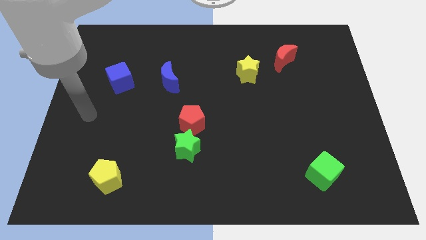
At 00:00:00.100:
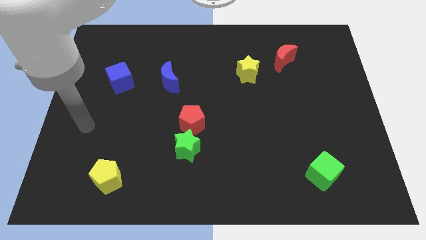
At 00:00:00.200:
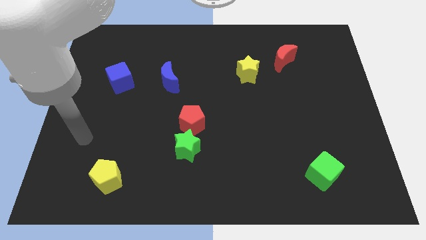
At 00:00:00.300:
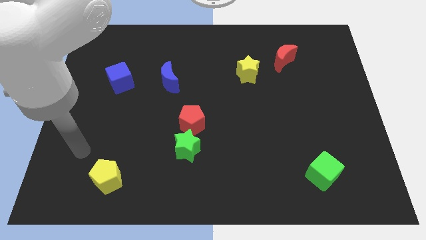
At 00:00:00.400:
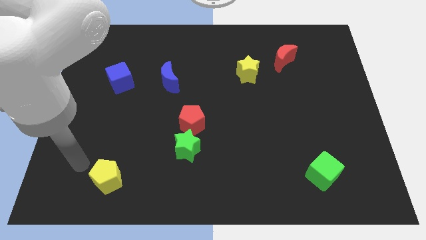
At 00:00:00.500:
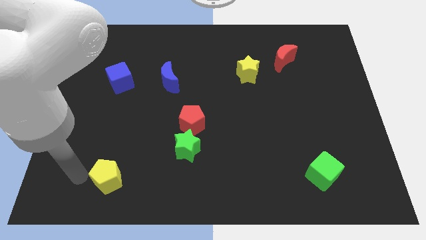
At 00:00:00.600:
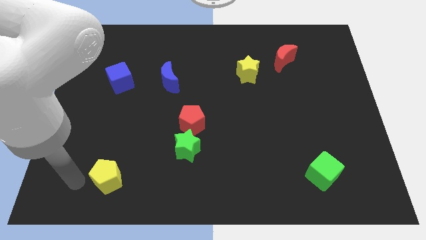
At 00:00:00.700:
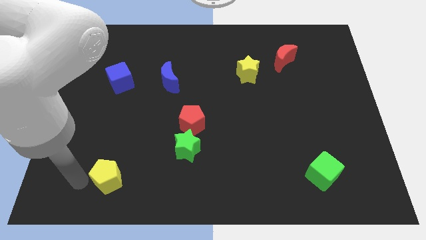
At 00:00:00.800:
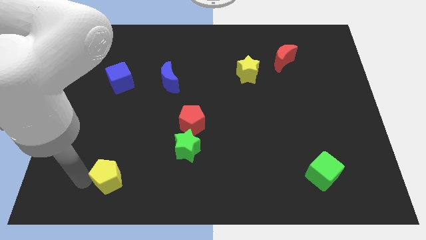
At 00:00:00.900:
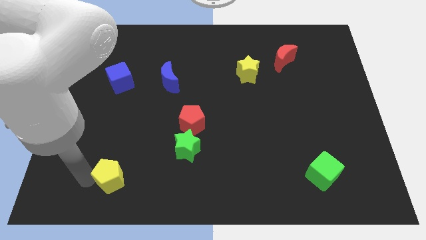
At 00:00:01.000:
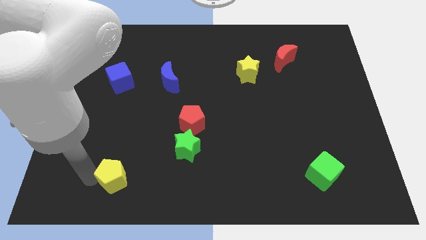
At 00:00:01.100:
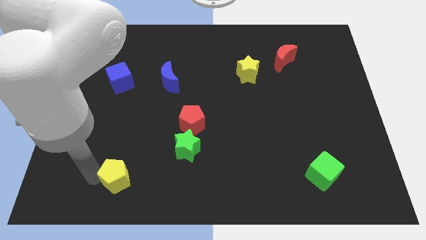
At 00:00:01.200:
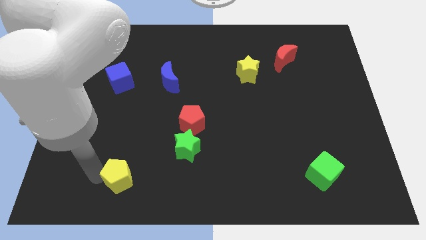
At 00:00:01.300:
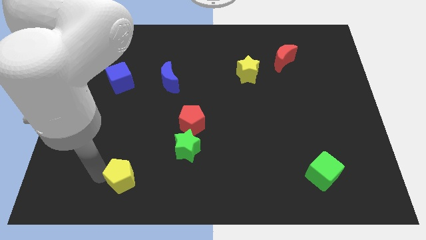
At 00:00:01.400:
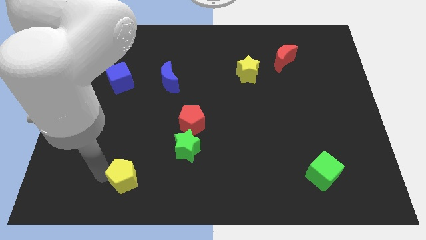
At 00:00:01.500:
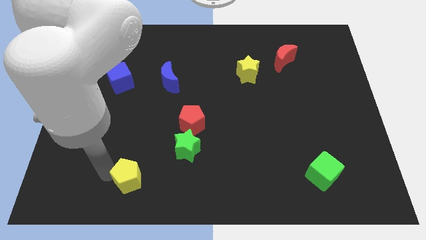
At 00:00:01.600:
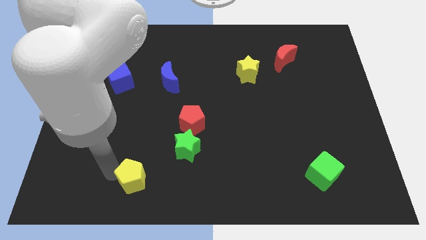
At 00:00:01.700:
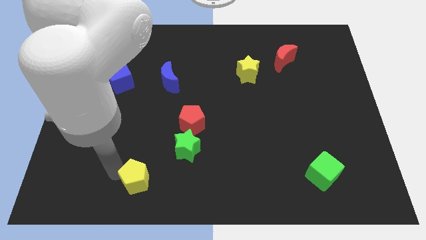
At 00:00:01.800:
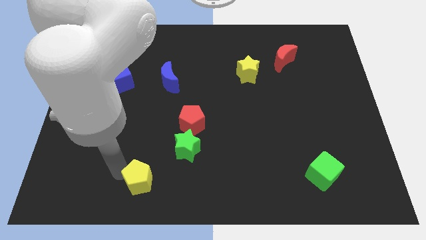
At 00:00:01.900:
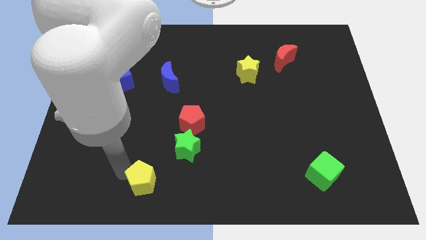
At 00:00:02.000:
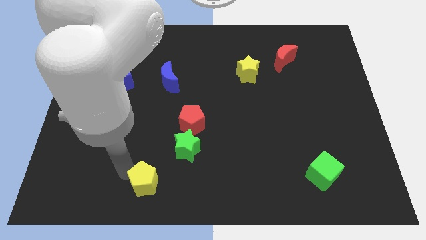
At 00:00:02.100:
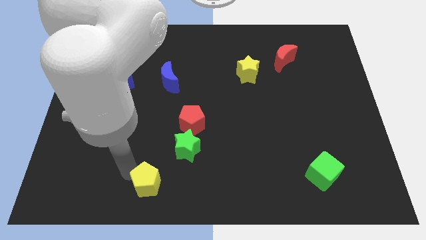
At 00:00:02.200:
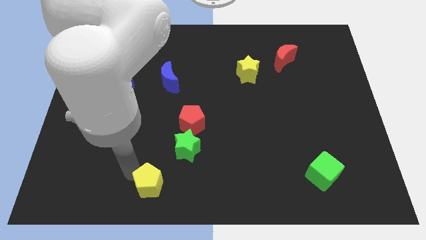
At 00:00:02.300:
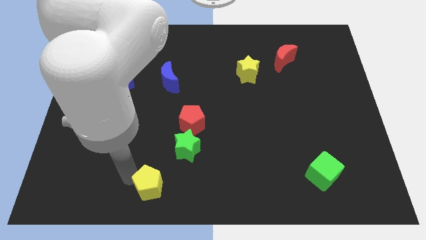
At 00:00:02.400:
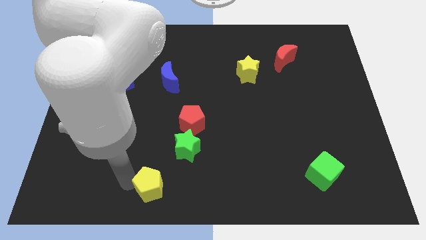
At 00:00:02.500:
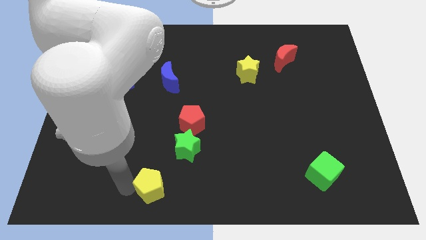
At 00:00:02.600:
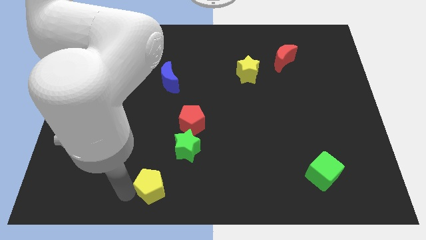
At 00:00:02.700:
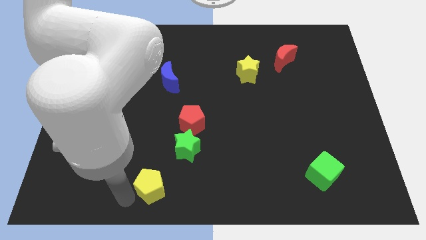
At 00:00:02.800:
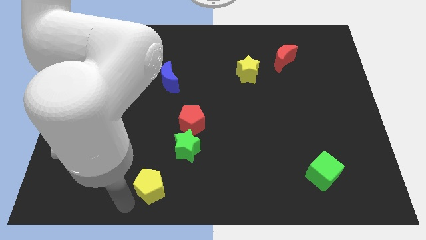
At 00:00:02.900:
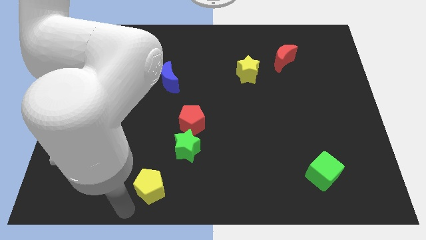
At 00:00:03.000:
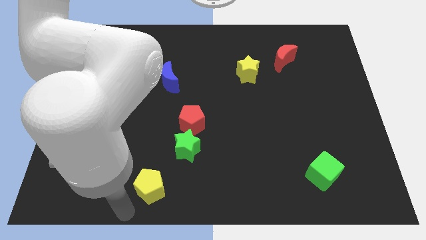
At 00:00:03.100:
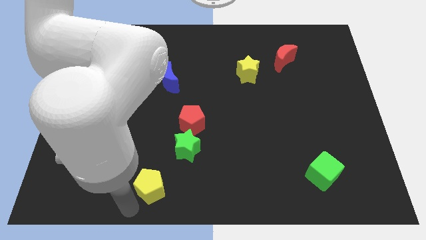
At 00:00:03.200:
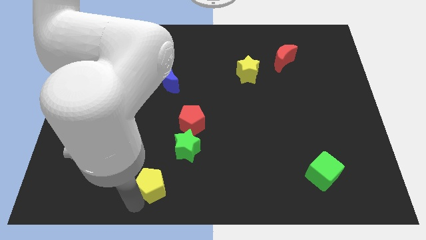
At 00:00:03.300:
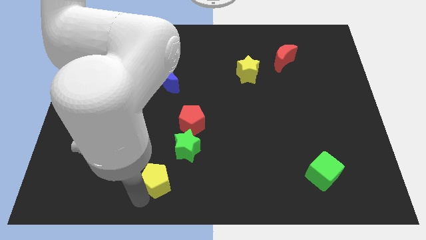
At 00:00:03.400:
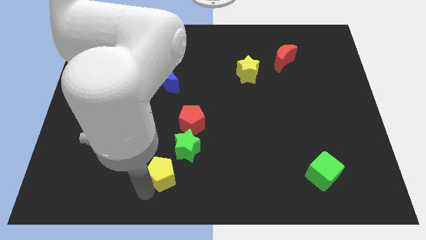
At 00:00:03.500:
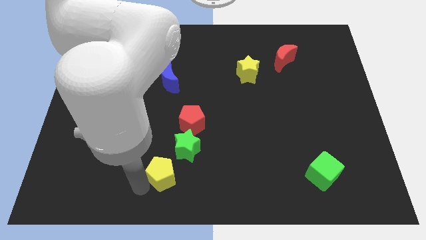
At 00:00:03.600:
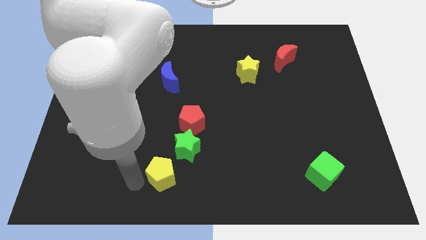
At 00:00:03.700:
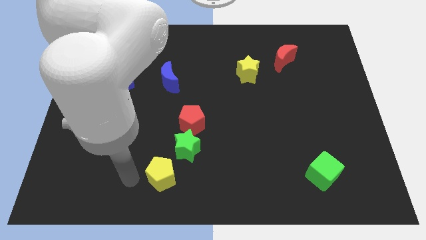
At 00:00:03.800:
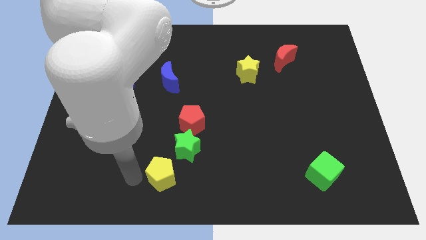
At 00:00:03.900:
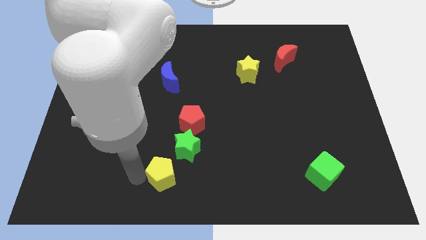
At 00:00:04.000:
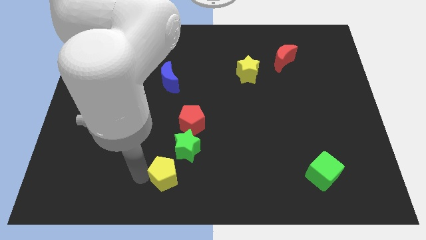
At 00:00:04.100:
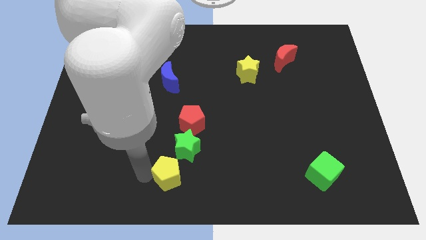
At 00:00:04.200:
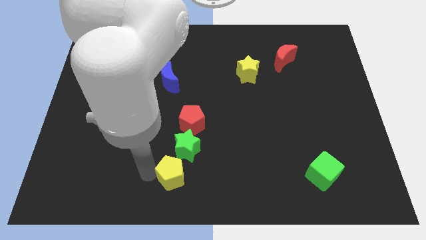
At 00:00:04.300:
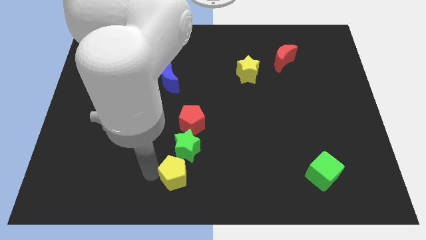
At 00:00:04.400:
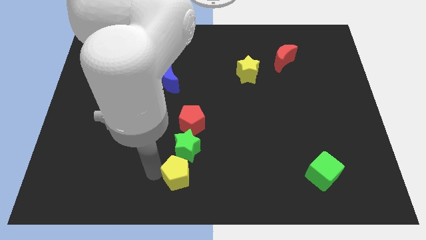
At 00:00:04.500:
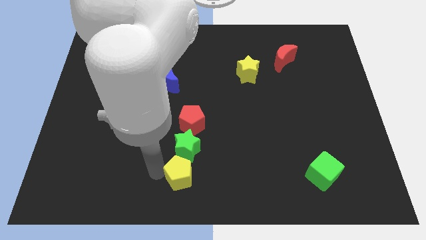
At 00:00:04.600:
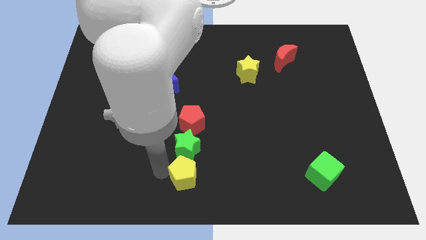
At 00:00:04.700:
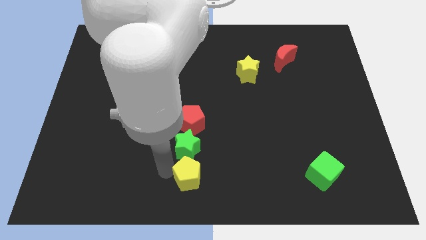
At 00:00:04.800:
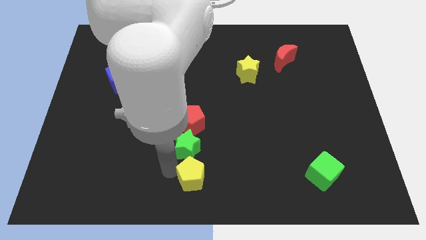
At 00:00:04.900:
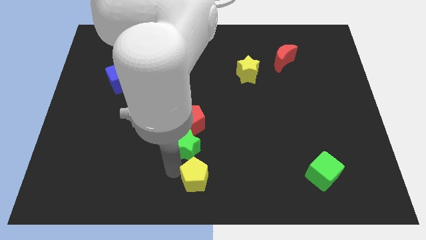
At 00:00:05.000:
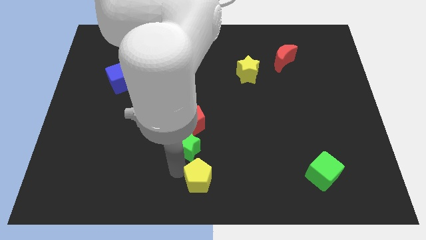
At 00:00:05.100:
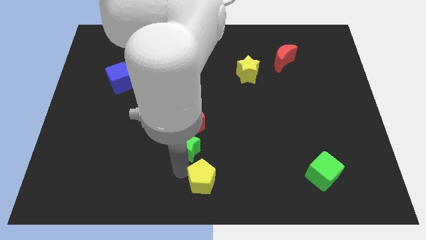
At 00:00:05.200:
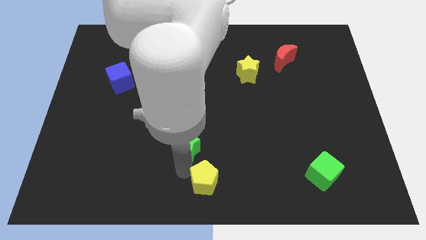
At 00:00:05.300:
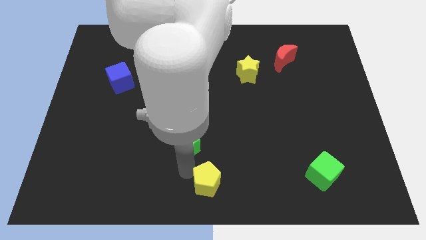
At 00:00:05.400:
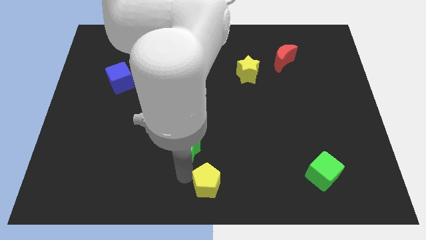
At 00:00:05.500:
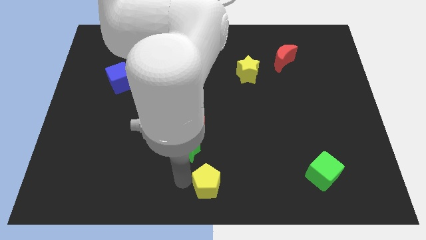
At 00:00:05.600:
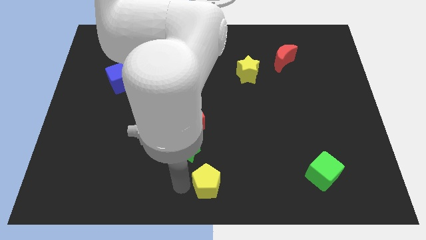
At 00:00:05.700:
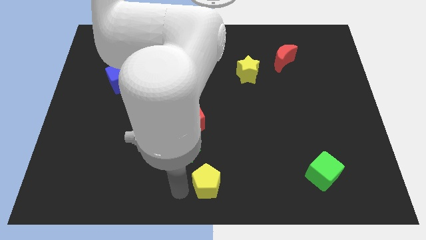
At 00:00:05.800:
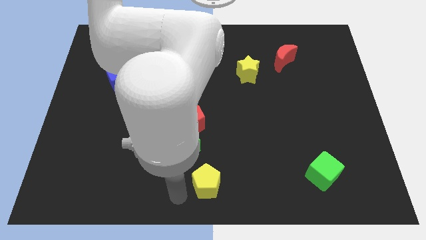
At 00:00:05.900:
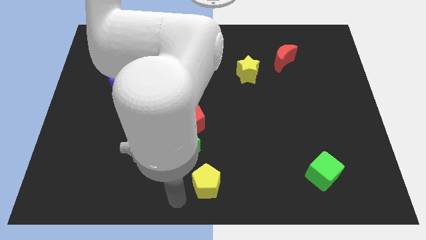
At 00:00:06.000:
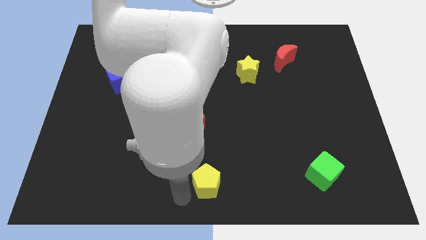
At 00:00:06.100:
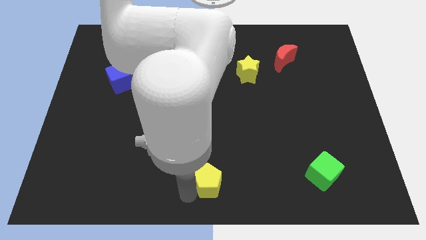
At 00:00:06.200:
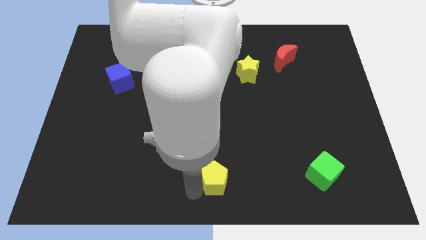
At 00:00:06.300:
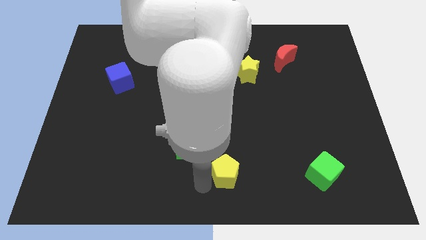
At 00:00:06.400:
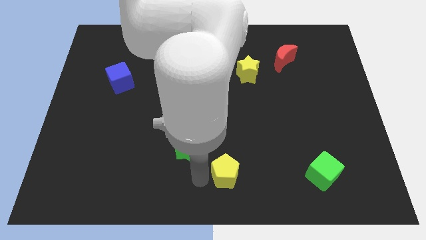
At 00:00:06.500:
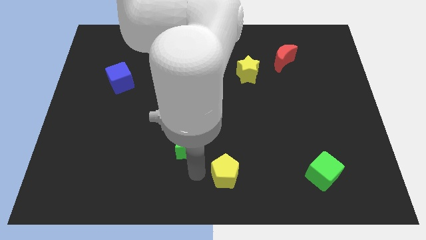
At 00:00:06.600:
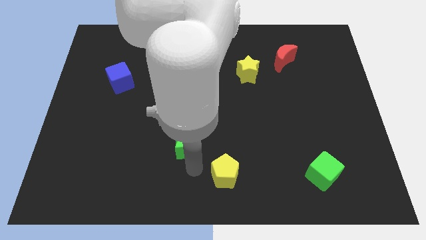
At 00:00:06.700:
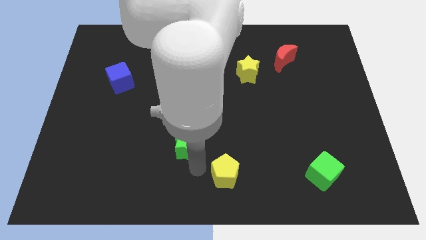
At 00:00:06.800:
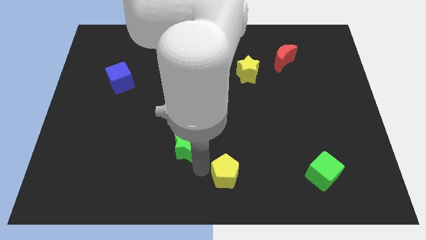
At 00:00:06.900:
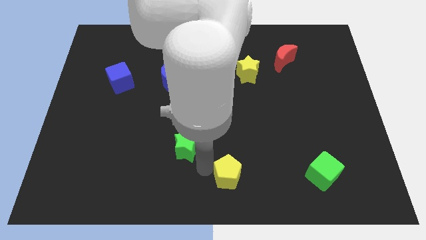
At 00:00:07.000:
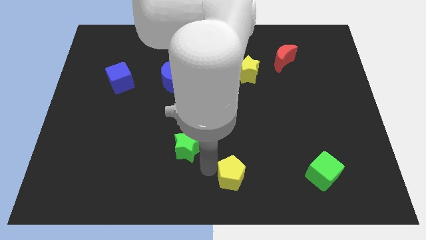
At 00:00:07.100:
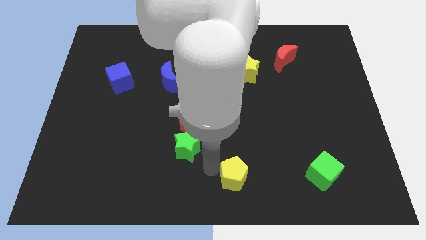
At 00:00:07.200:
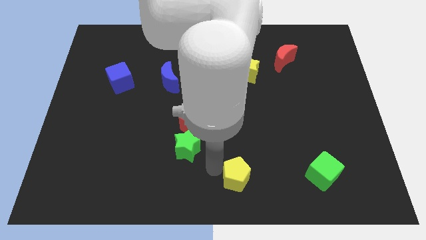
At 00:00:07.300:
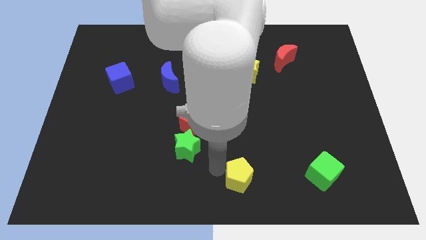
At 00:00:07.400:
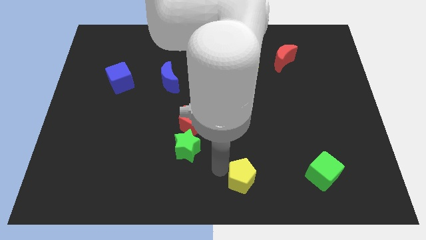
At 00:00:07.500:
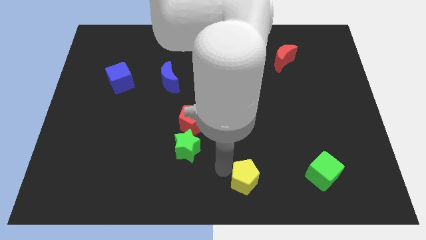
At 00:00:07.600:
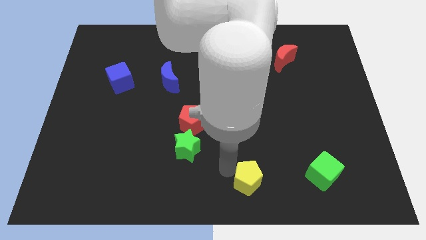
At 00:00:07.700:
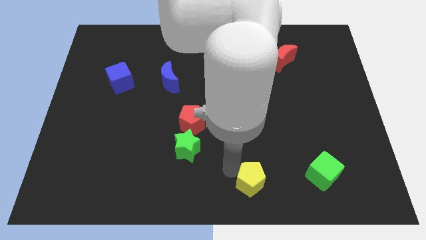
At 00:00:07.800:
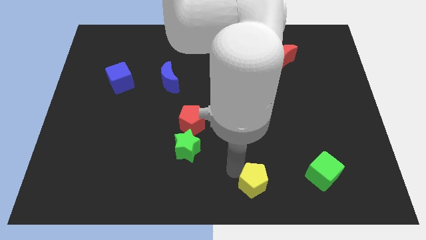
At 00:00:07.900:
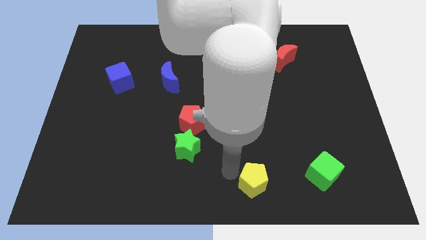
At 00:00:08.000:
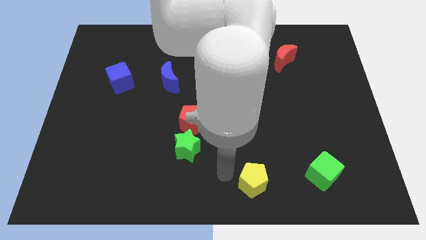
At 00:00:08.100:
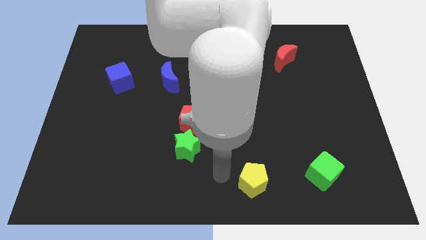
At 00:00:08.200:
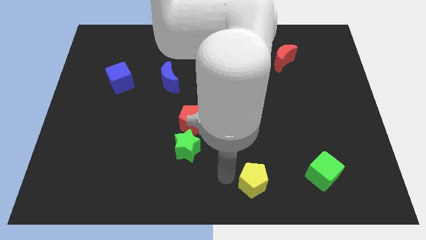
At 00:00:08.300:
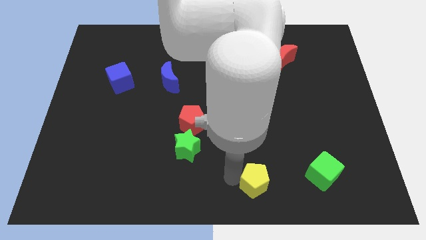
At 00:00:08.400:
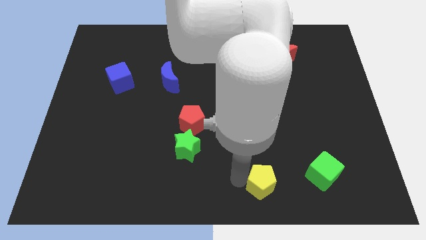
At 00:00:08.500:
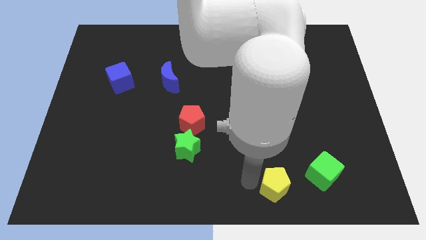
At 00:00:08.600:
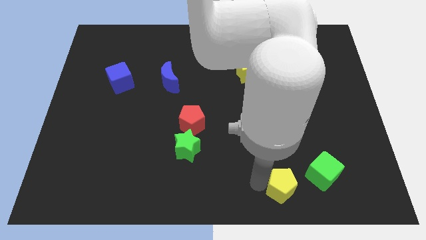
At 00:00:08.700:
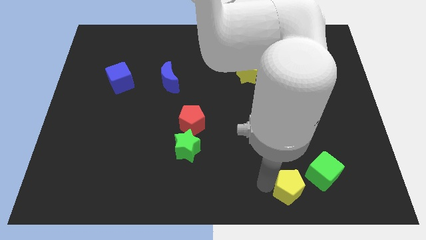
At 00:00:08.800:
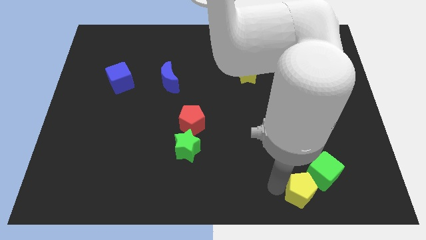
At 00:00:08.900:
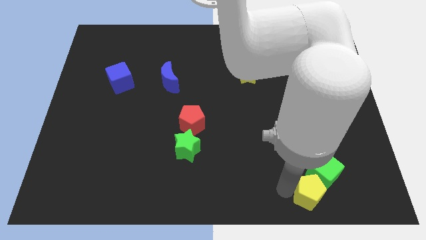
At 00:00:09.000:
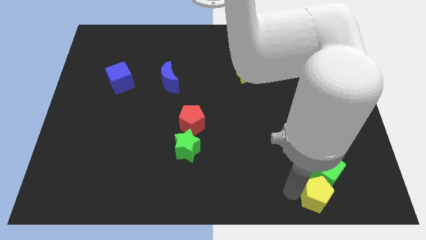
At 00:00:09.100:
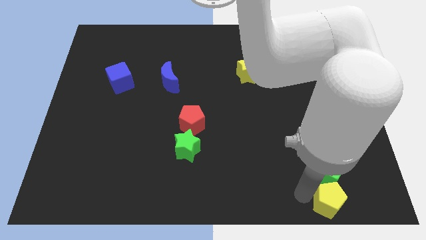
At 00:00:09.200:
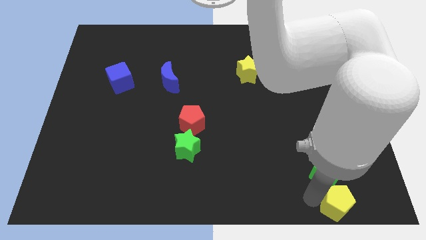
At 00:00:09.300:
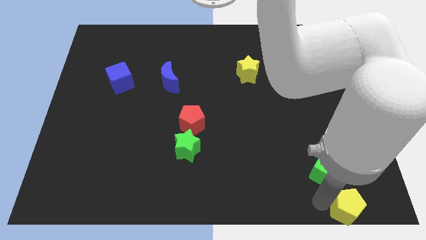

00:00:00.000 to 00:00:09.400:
push the yellow pentagon to the bottom right of the board
